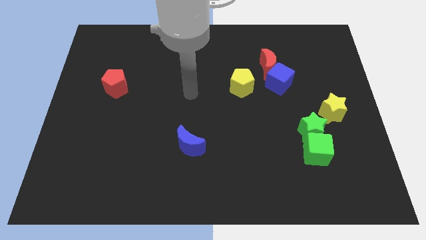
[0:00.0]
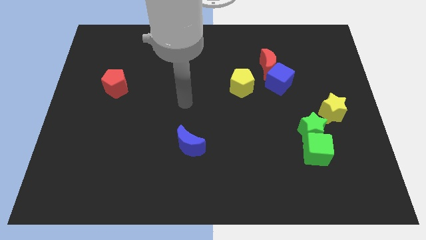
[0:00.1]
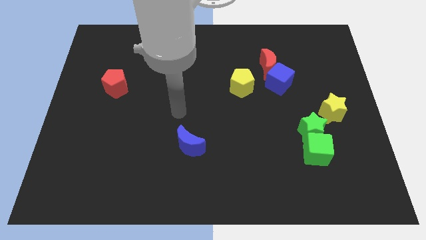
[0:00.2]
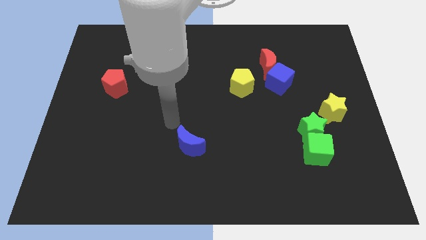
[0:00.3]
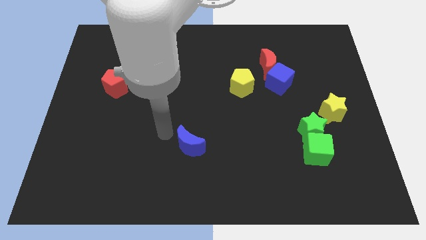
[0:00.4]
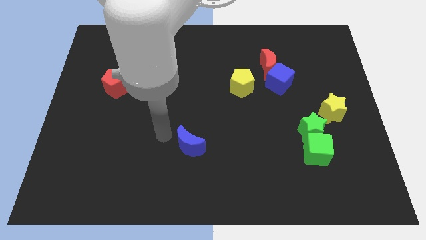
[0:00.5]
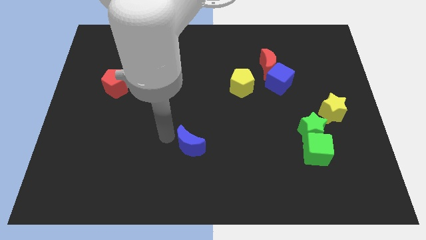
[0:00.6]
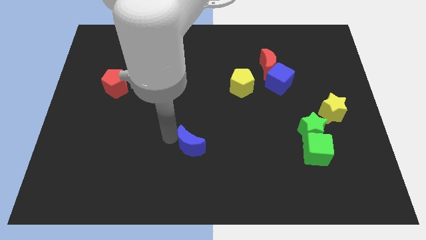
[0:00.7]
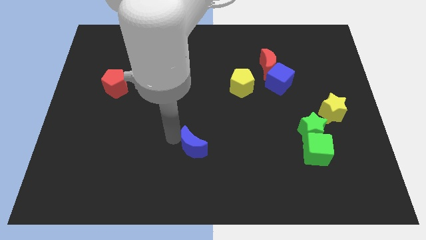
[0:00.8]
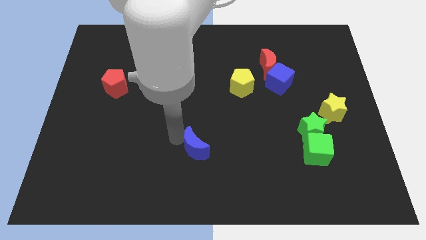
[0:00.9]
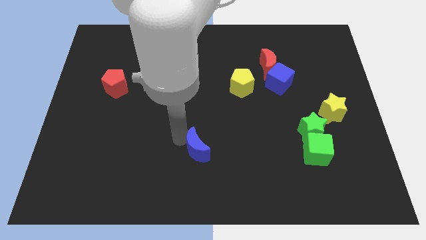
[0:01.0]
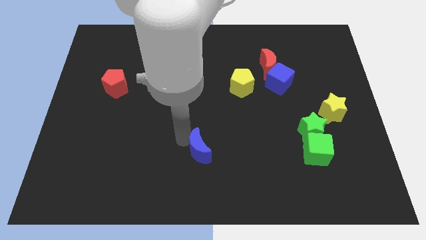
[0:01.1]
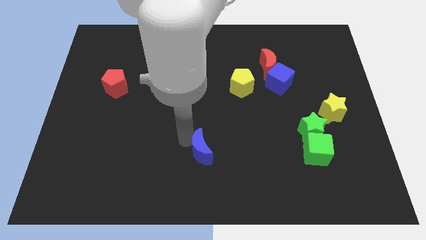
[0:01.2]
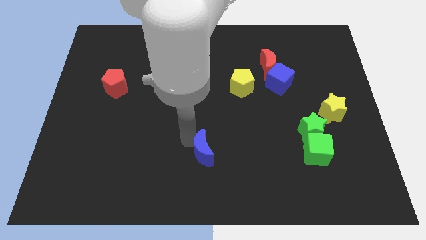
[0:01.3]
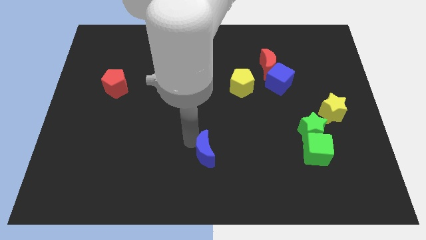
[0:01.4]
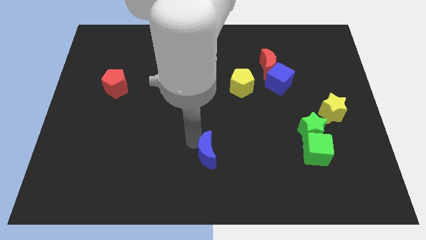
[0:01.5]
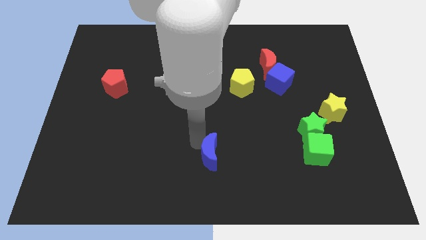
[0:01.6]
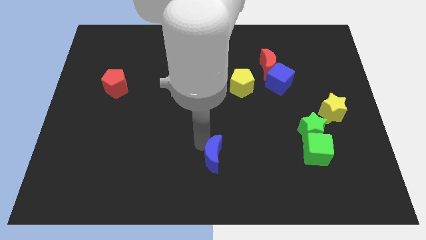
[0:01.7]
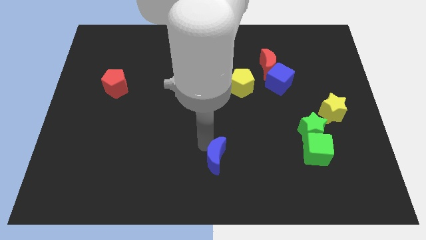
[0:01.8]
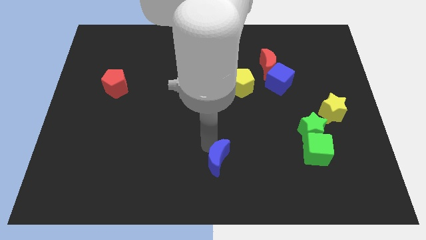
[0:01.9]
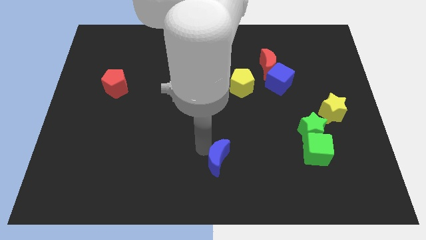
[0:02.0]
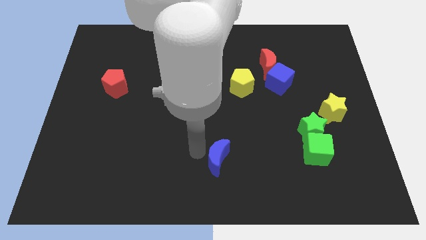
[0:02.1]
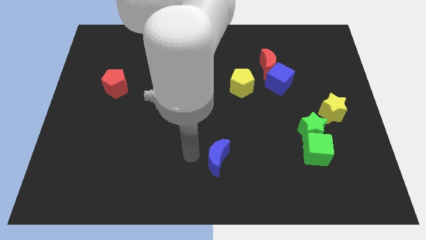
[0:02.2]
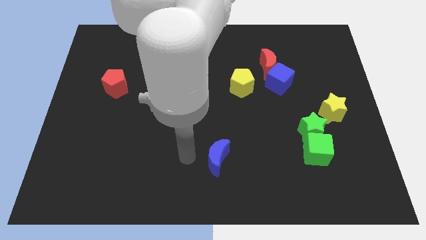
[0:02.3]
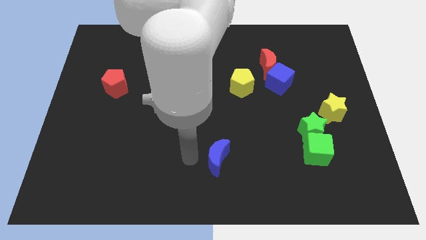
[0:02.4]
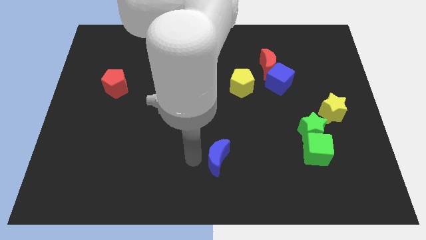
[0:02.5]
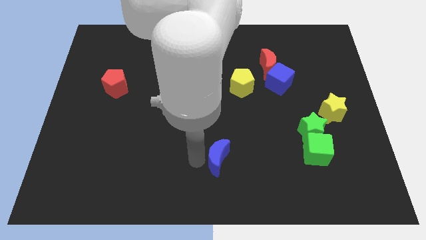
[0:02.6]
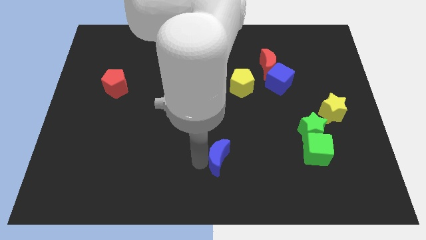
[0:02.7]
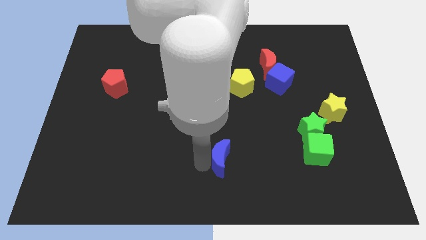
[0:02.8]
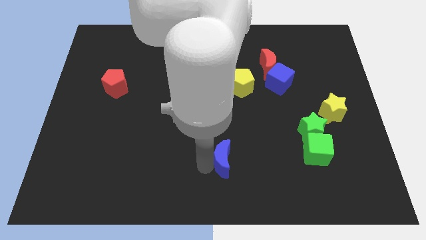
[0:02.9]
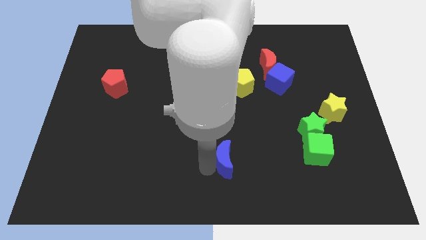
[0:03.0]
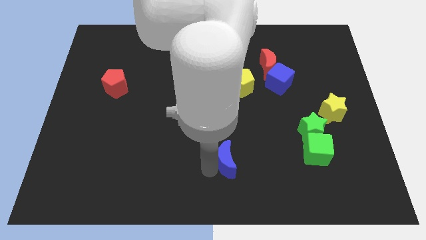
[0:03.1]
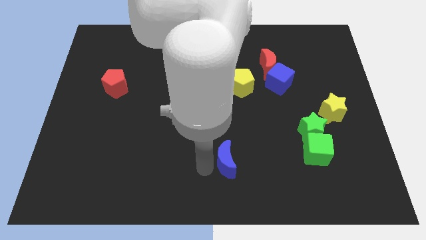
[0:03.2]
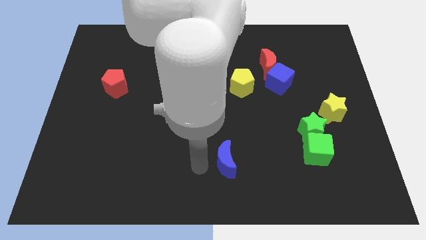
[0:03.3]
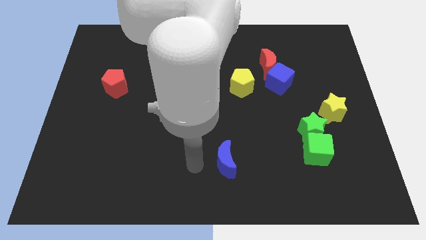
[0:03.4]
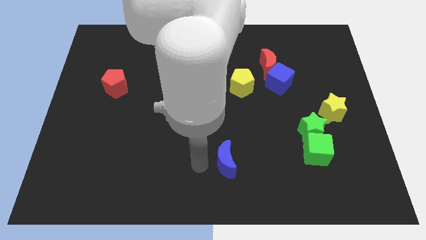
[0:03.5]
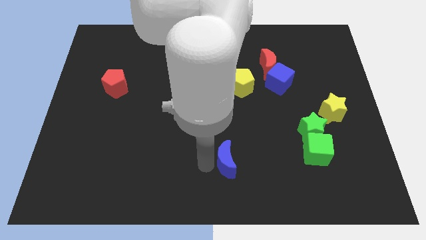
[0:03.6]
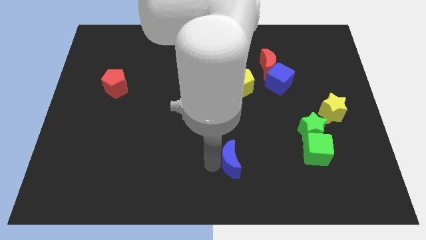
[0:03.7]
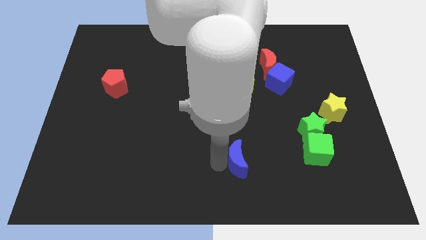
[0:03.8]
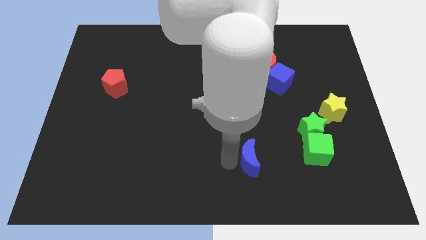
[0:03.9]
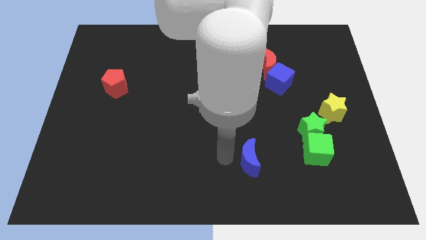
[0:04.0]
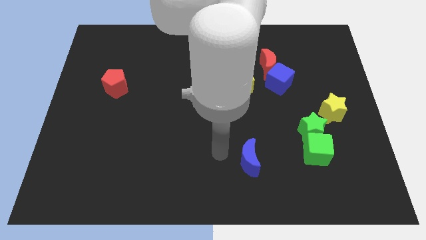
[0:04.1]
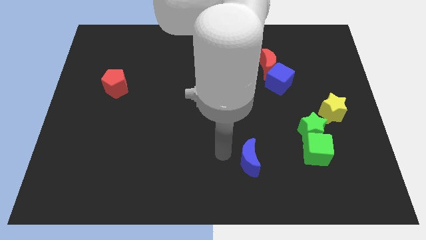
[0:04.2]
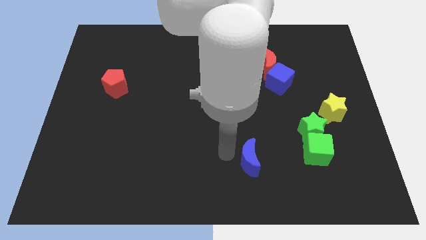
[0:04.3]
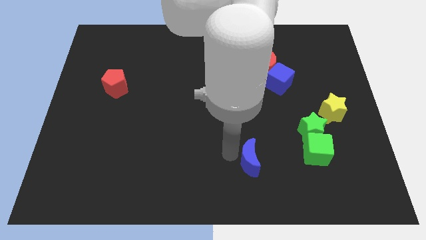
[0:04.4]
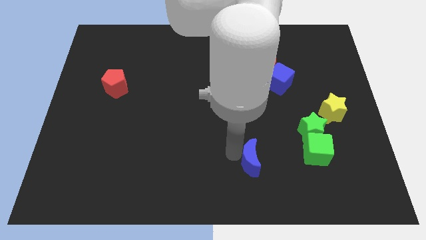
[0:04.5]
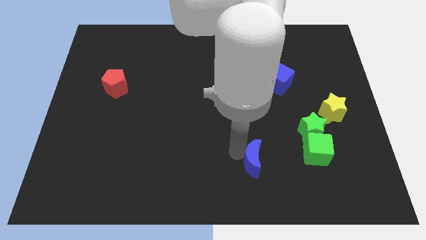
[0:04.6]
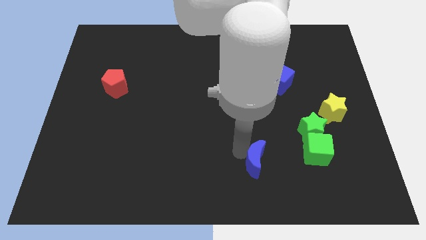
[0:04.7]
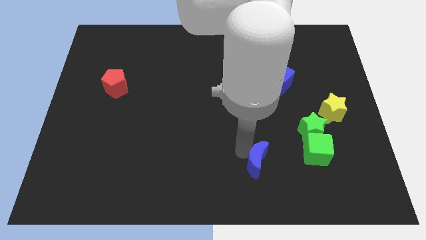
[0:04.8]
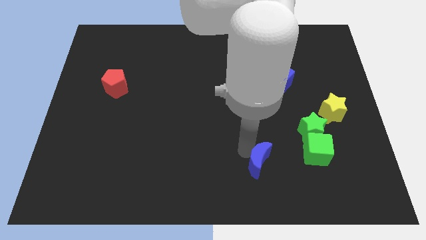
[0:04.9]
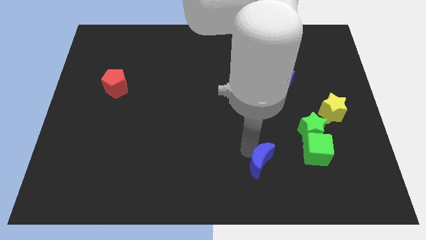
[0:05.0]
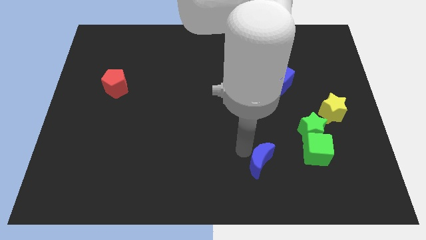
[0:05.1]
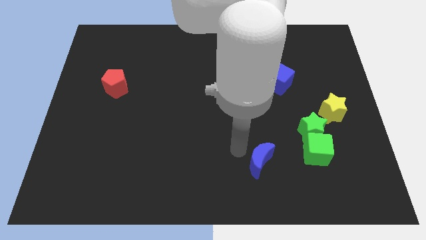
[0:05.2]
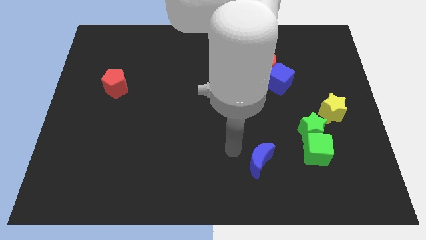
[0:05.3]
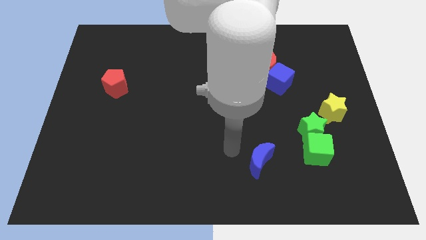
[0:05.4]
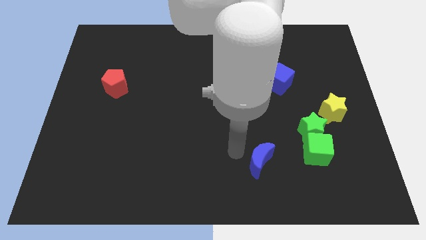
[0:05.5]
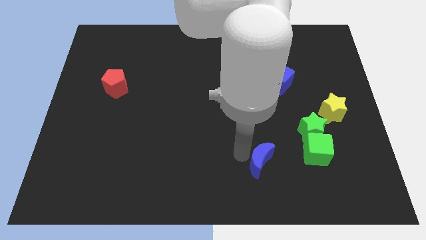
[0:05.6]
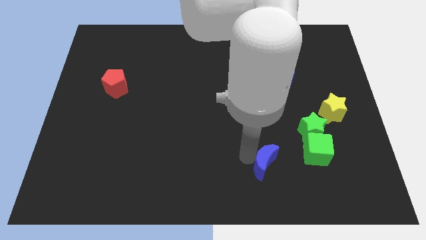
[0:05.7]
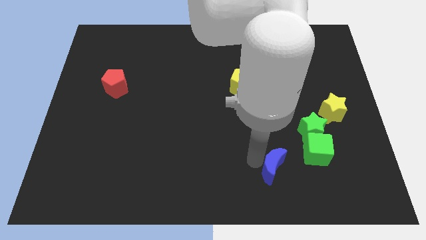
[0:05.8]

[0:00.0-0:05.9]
slide the blue moon diagonally down and to the left of the green cube

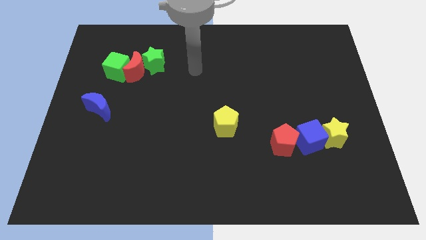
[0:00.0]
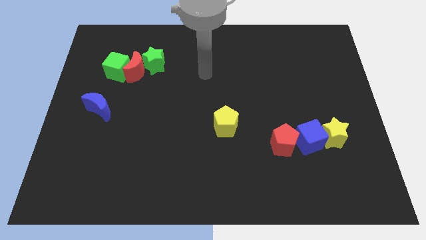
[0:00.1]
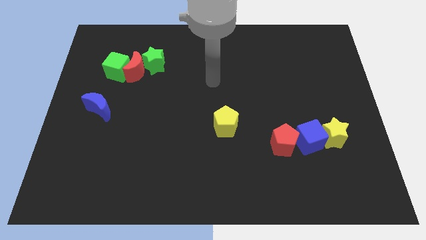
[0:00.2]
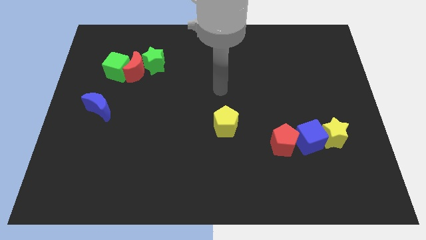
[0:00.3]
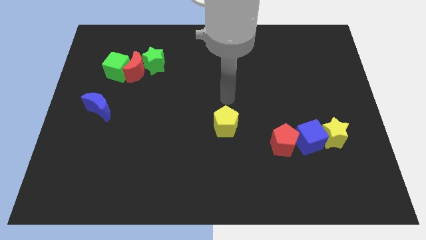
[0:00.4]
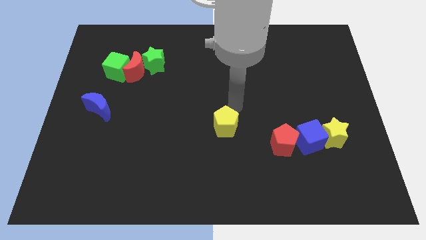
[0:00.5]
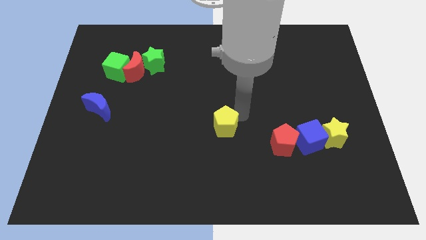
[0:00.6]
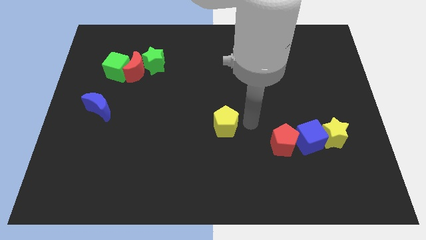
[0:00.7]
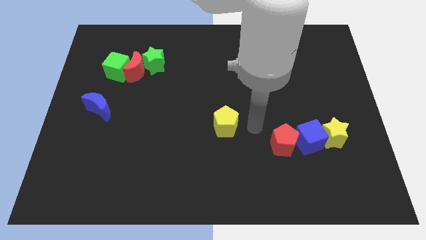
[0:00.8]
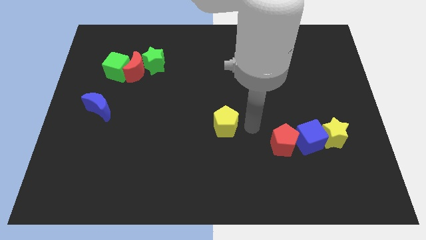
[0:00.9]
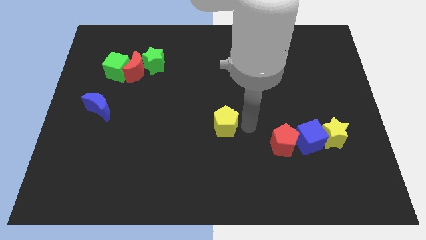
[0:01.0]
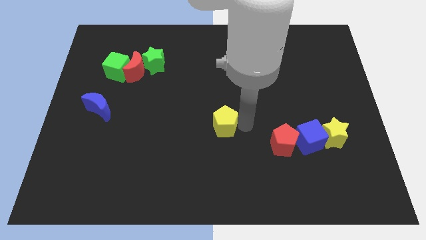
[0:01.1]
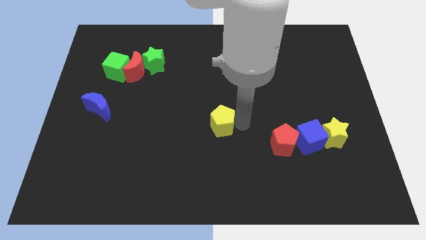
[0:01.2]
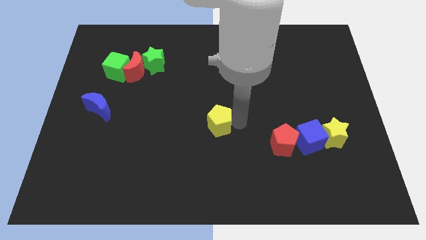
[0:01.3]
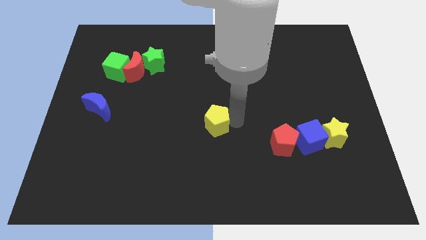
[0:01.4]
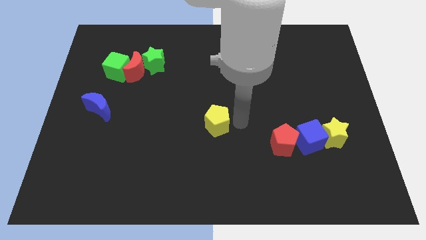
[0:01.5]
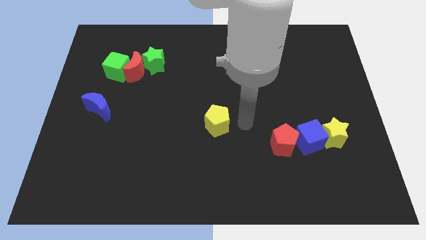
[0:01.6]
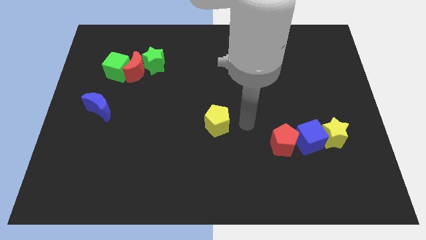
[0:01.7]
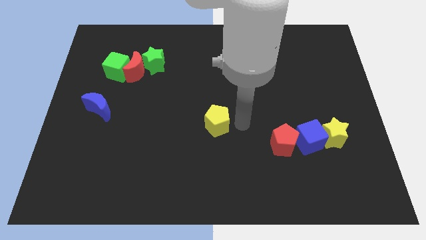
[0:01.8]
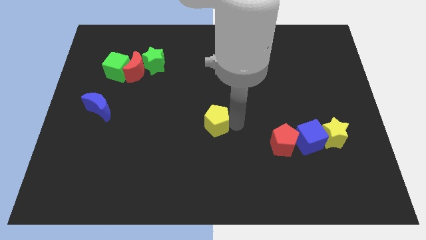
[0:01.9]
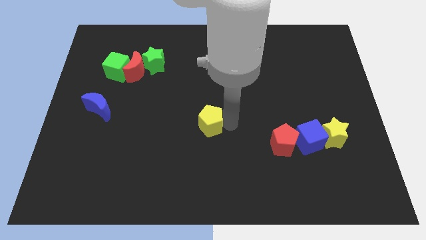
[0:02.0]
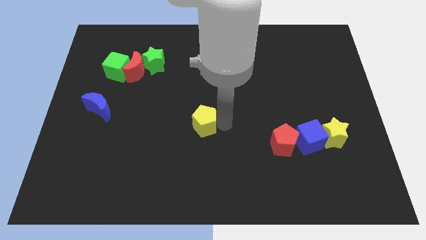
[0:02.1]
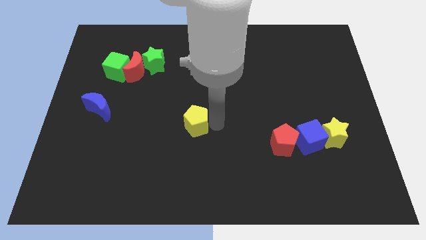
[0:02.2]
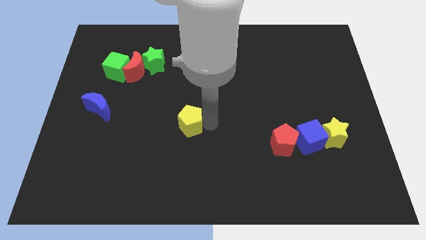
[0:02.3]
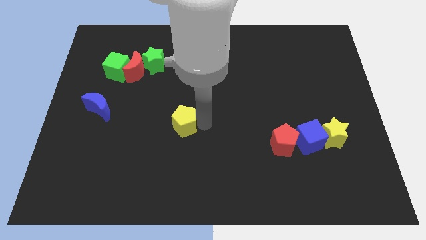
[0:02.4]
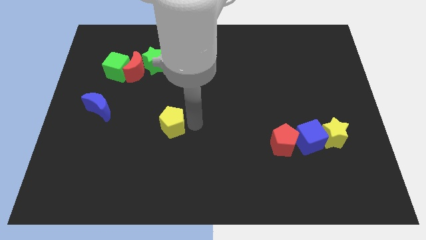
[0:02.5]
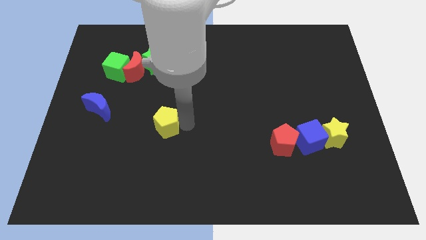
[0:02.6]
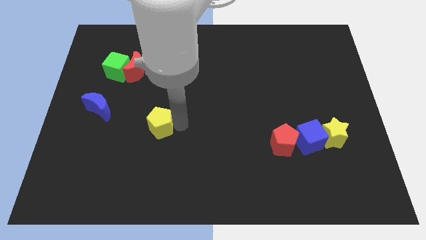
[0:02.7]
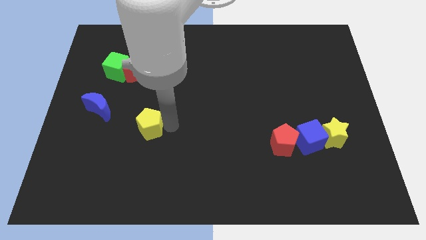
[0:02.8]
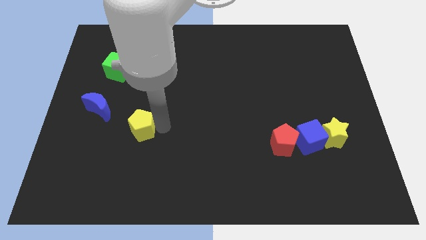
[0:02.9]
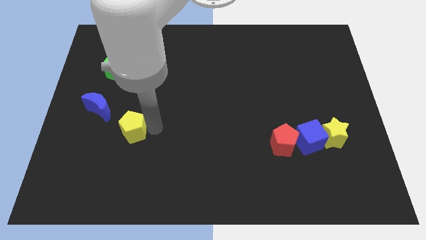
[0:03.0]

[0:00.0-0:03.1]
move the yellow pentagon to the bottom right of the blue moon
